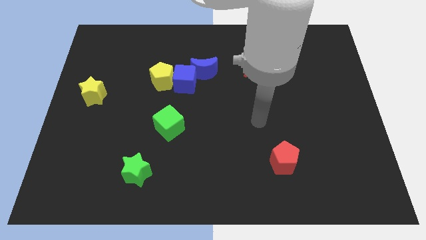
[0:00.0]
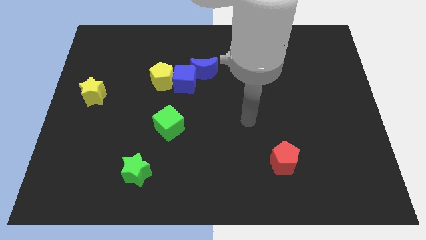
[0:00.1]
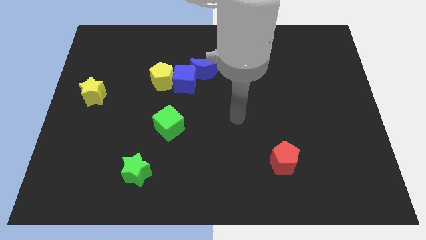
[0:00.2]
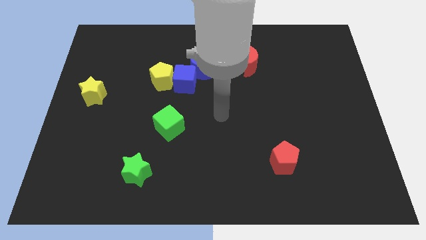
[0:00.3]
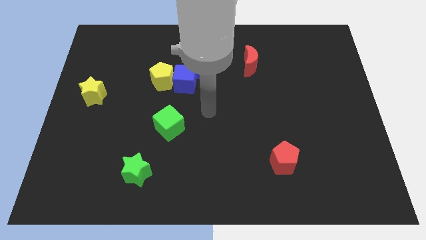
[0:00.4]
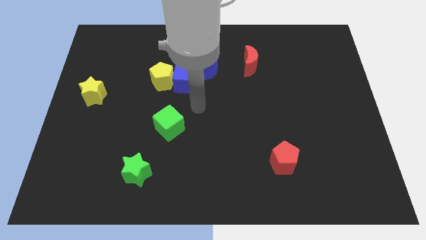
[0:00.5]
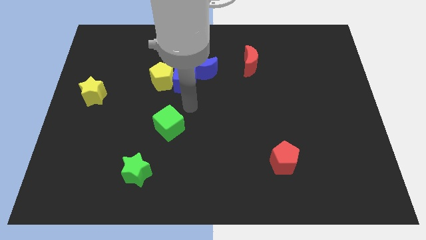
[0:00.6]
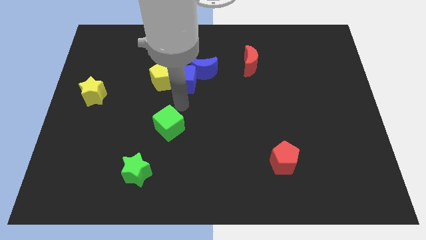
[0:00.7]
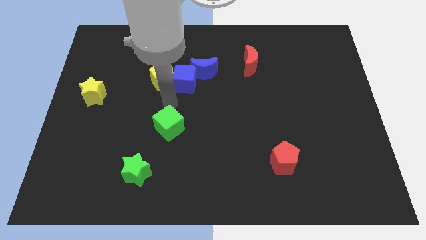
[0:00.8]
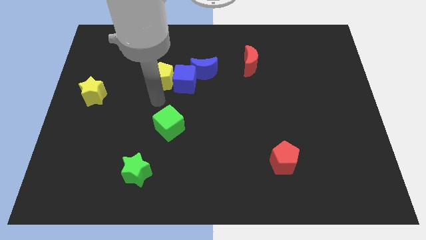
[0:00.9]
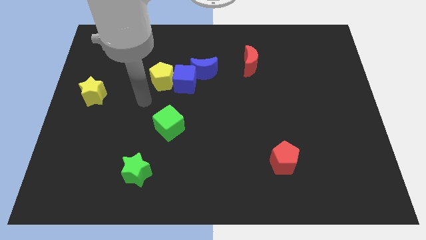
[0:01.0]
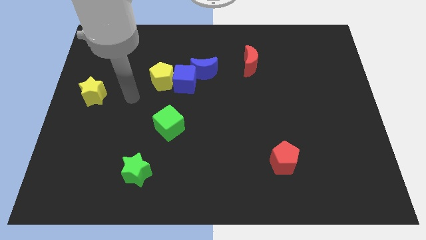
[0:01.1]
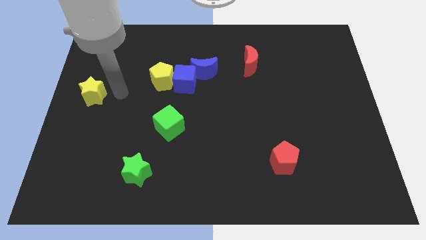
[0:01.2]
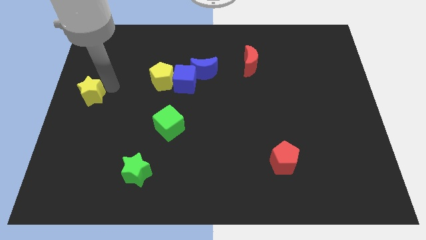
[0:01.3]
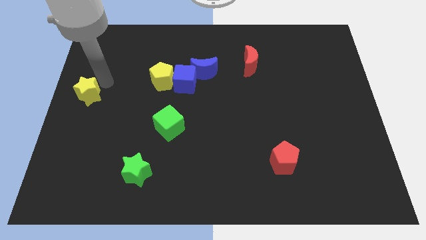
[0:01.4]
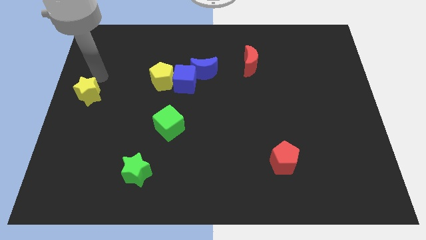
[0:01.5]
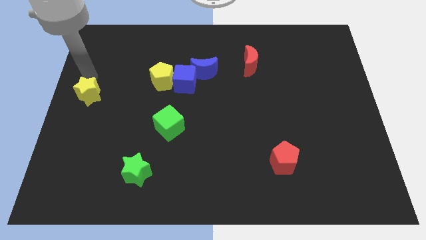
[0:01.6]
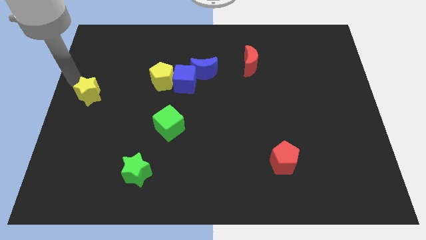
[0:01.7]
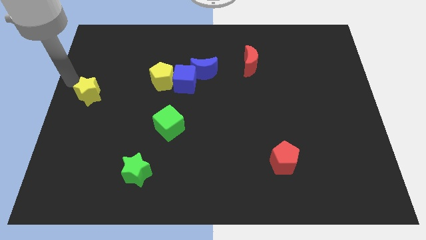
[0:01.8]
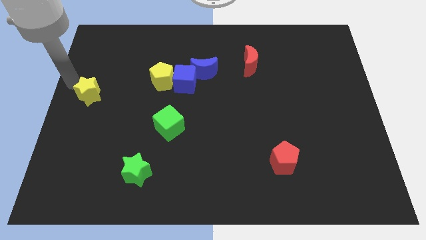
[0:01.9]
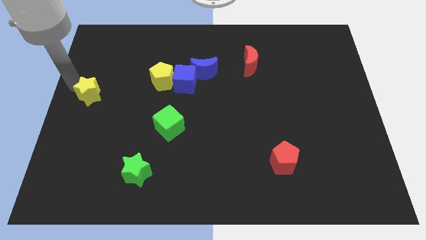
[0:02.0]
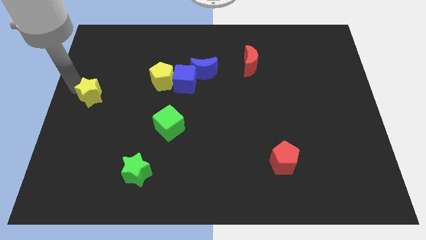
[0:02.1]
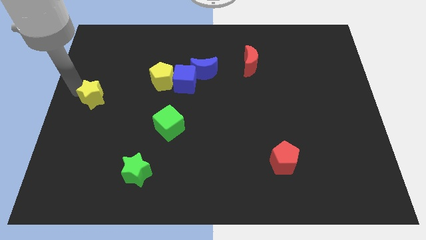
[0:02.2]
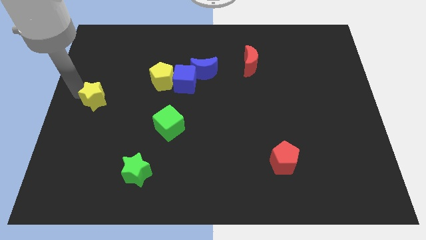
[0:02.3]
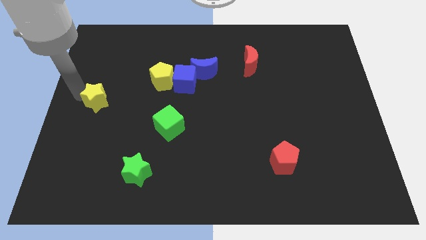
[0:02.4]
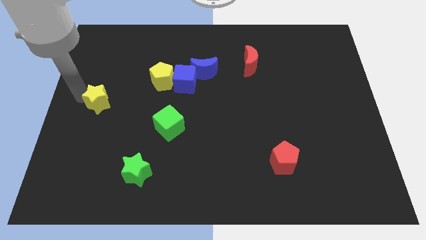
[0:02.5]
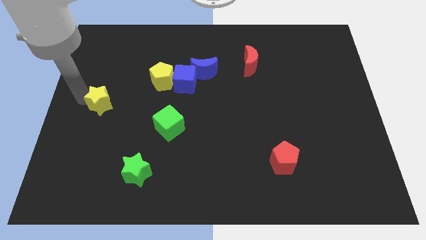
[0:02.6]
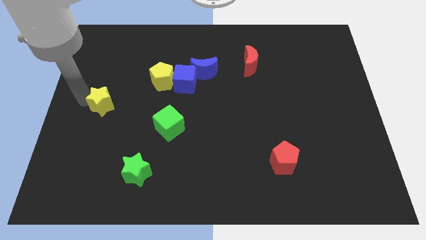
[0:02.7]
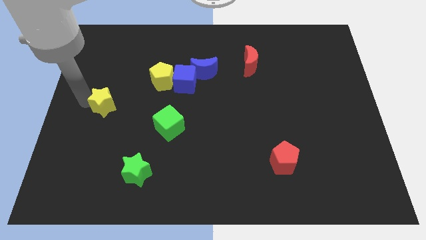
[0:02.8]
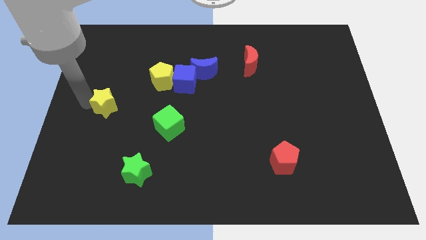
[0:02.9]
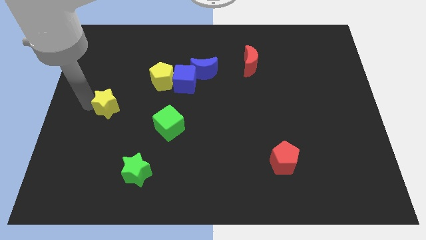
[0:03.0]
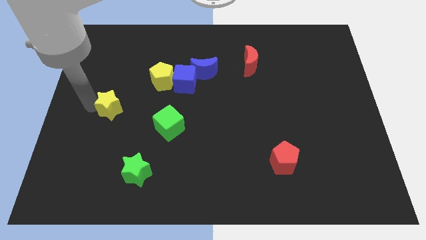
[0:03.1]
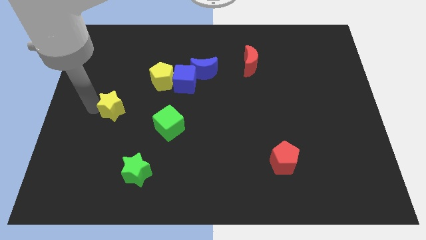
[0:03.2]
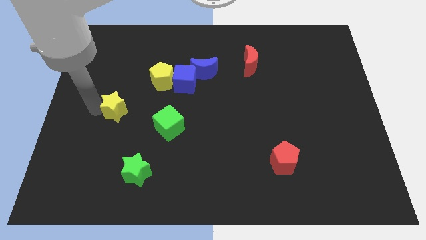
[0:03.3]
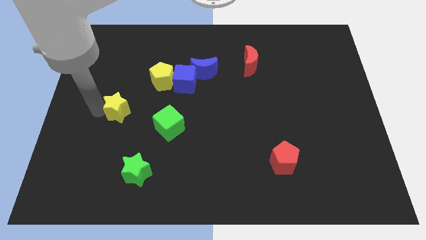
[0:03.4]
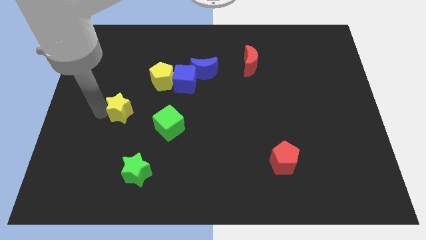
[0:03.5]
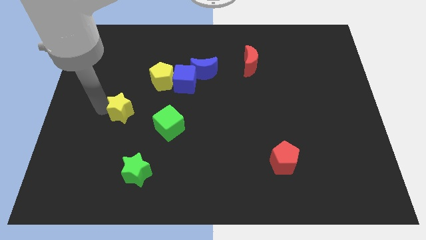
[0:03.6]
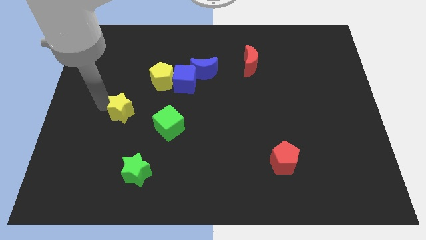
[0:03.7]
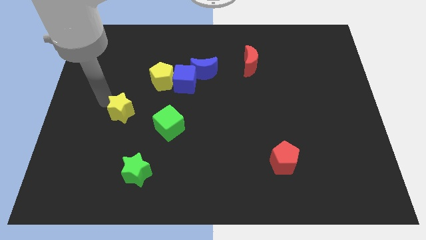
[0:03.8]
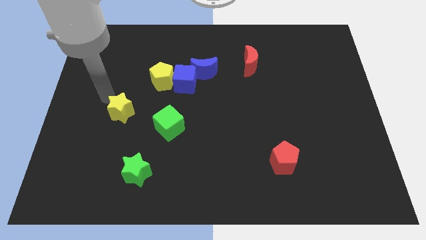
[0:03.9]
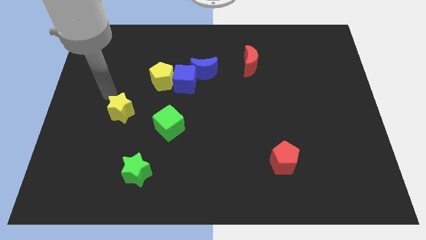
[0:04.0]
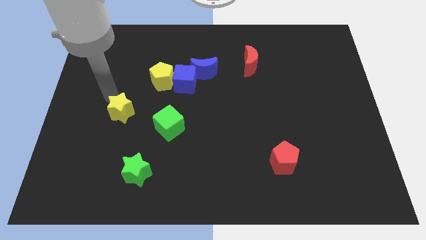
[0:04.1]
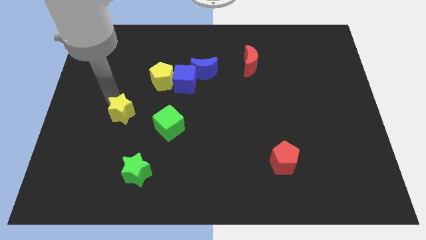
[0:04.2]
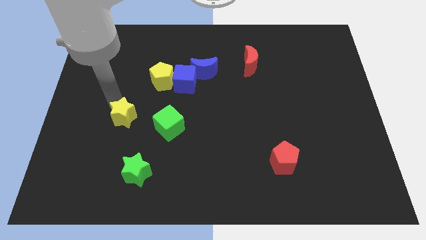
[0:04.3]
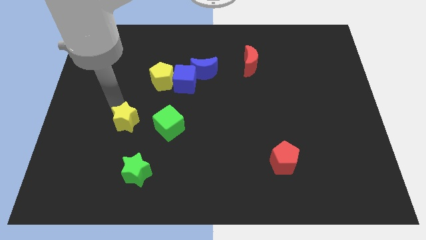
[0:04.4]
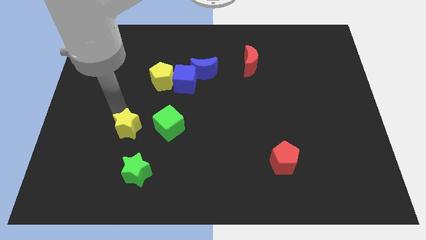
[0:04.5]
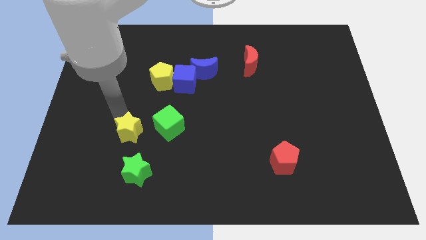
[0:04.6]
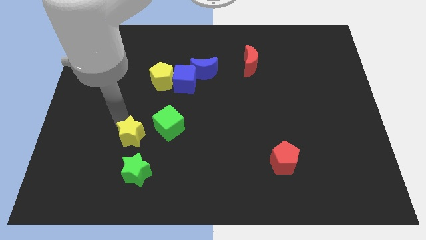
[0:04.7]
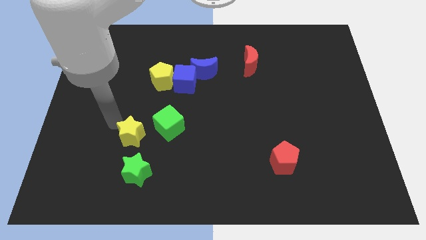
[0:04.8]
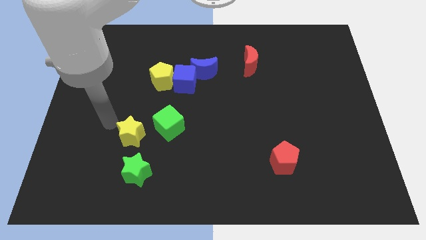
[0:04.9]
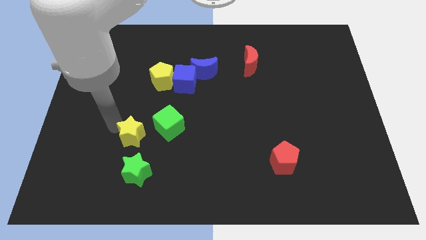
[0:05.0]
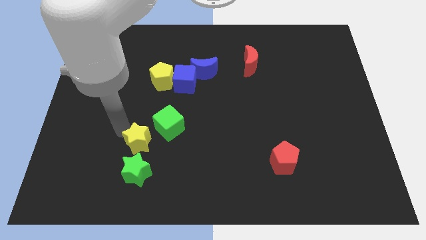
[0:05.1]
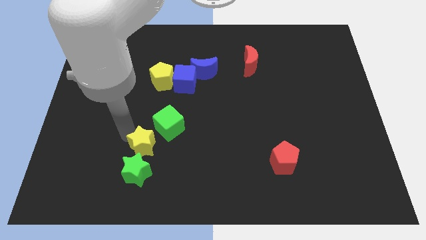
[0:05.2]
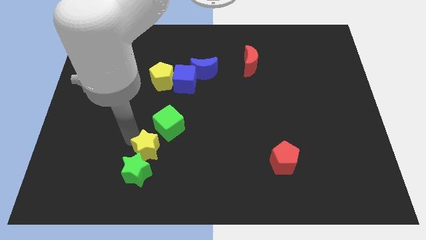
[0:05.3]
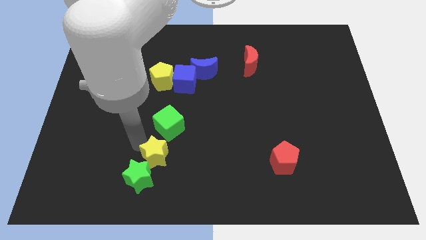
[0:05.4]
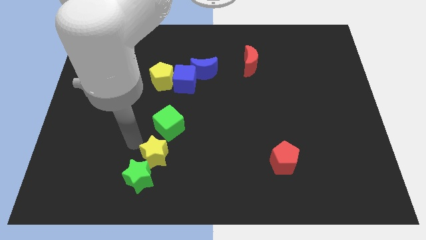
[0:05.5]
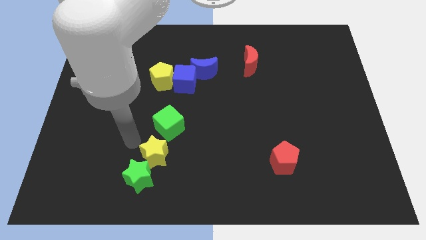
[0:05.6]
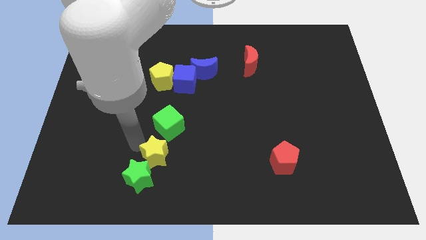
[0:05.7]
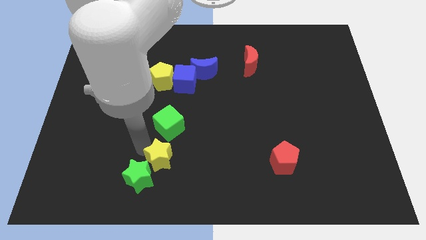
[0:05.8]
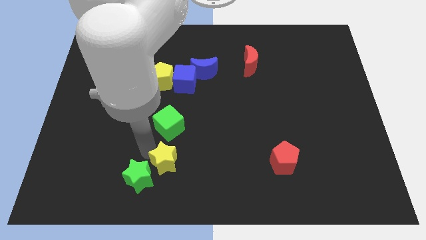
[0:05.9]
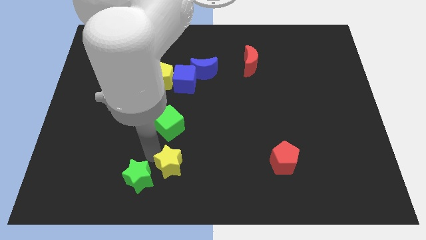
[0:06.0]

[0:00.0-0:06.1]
push the yellow star to the bottom side
